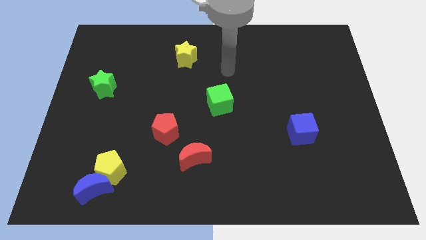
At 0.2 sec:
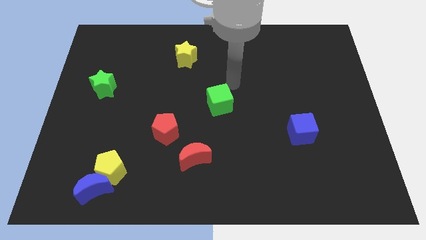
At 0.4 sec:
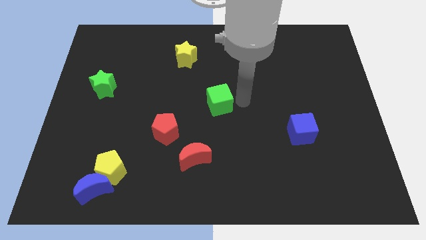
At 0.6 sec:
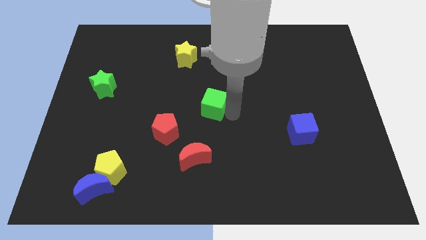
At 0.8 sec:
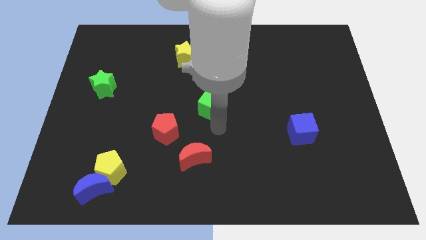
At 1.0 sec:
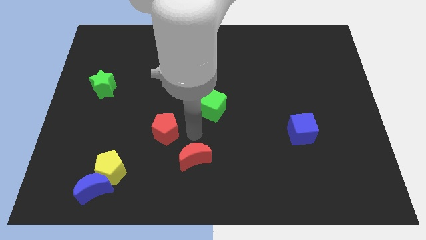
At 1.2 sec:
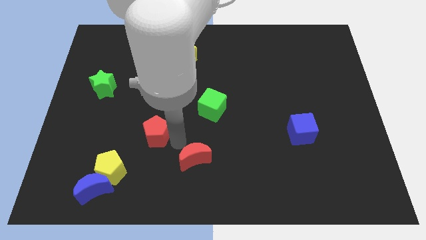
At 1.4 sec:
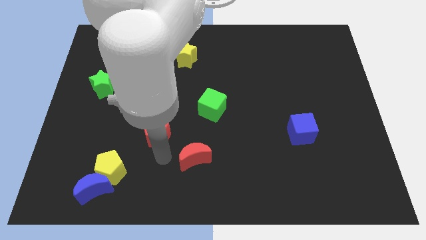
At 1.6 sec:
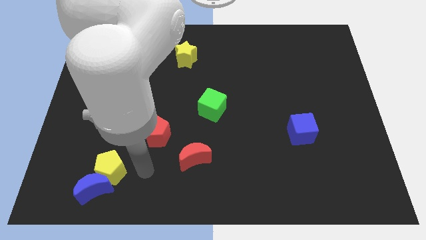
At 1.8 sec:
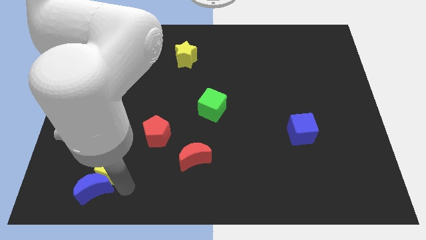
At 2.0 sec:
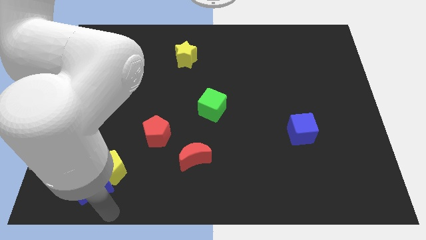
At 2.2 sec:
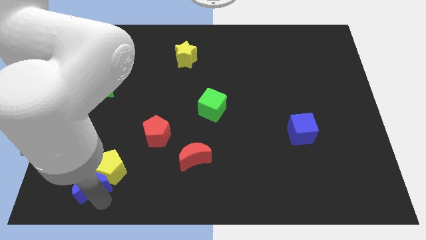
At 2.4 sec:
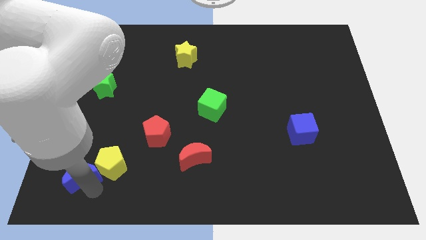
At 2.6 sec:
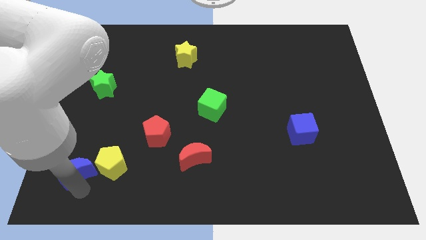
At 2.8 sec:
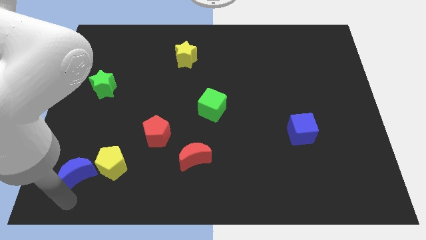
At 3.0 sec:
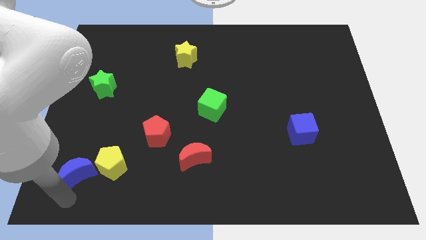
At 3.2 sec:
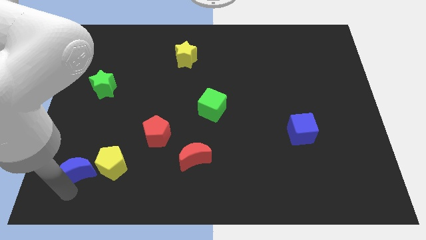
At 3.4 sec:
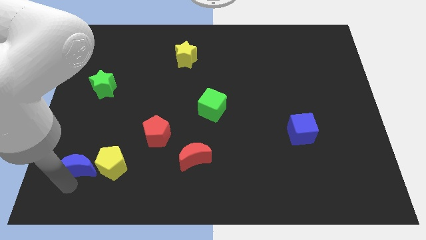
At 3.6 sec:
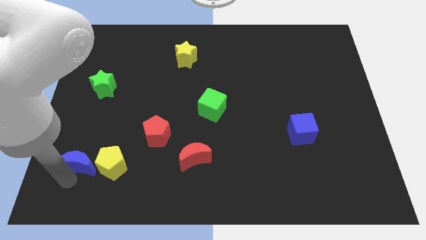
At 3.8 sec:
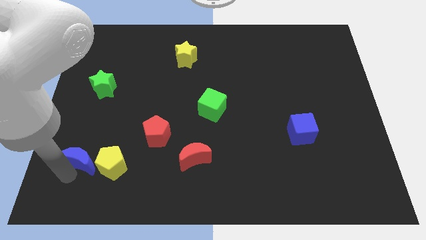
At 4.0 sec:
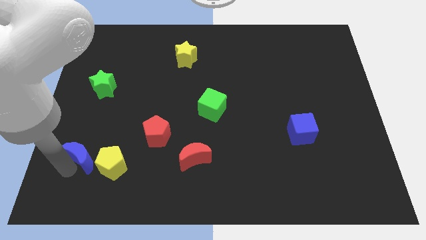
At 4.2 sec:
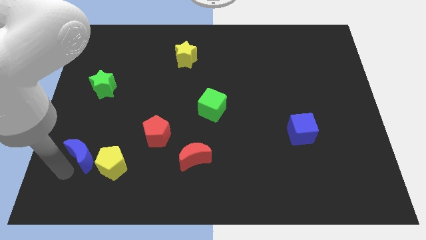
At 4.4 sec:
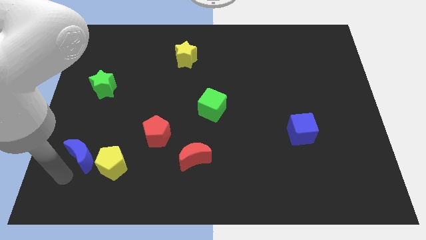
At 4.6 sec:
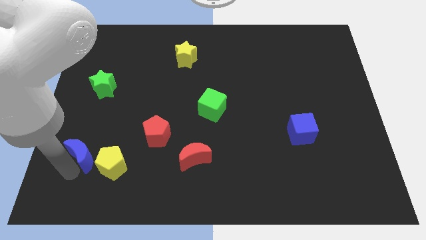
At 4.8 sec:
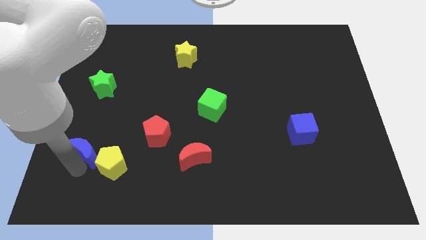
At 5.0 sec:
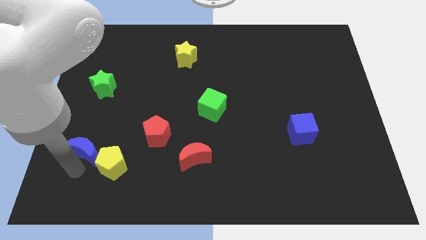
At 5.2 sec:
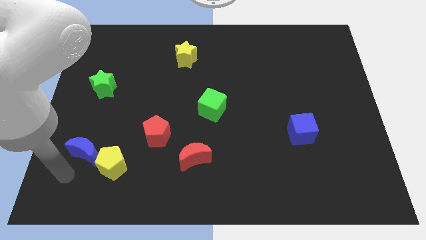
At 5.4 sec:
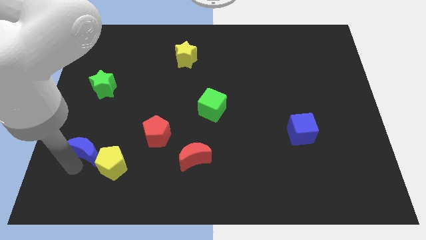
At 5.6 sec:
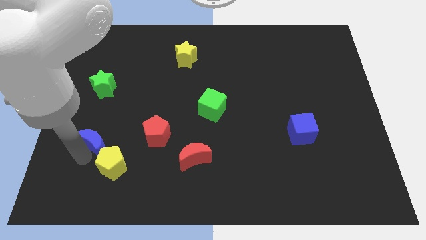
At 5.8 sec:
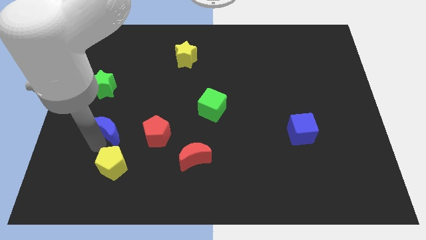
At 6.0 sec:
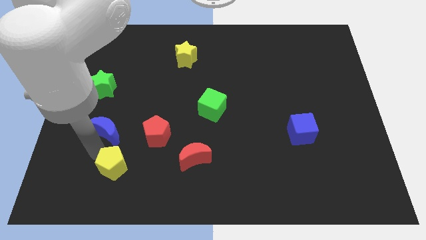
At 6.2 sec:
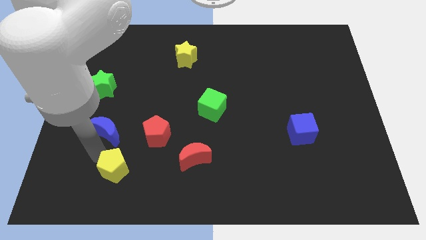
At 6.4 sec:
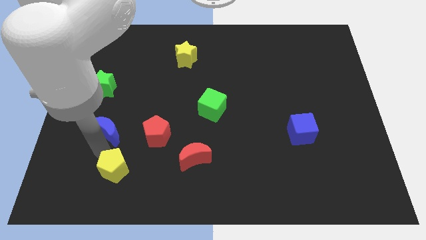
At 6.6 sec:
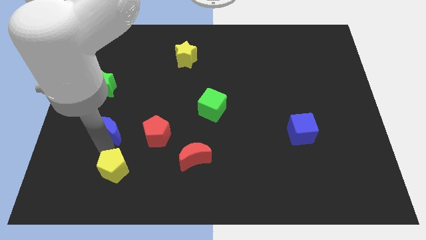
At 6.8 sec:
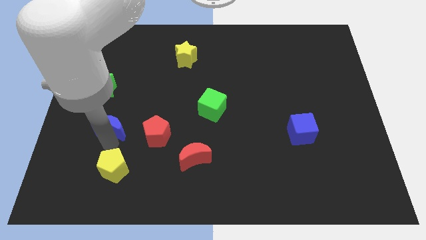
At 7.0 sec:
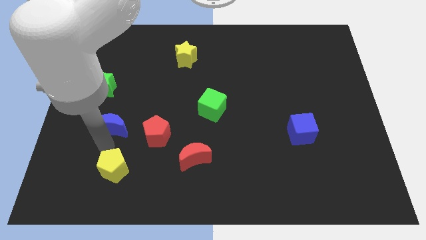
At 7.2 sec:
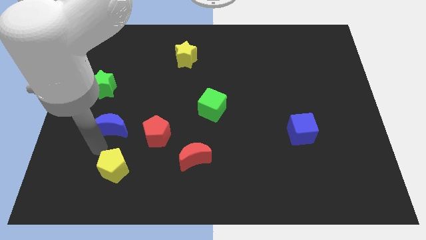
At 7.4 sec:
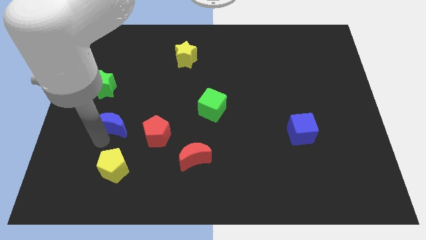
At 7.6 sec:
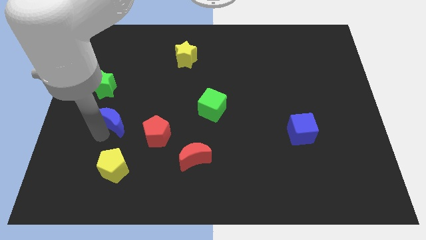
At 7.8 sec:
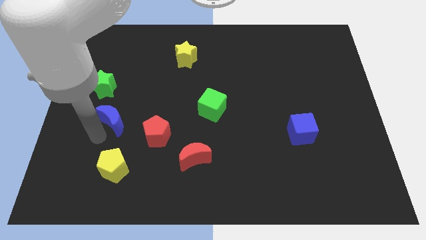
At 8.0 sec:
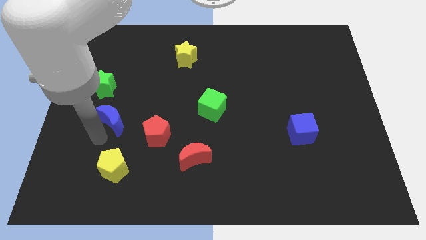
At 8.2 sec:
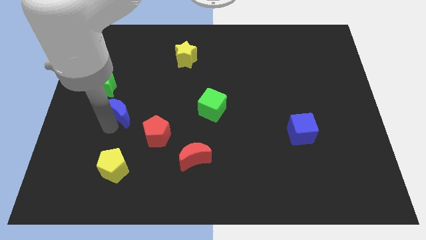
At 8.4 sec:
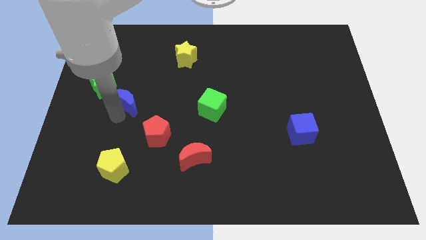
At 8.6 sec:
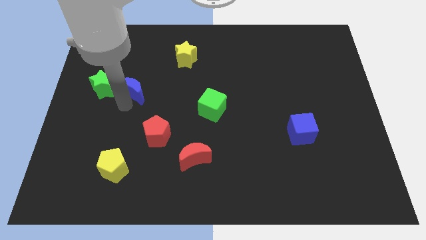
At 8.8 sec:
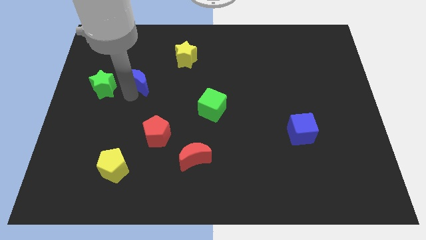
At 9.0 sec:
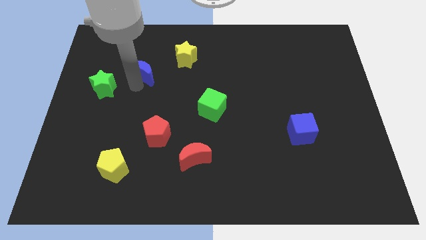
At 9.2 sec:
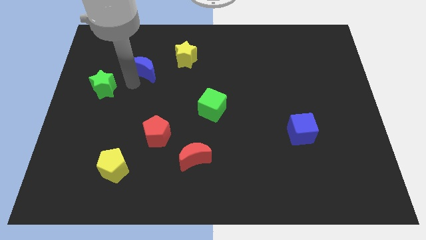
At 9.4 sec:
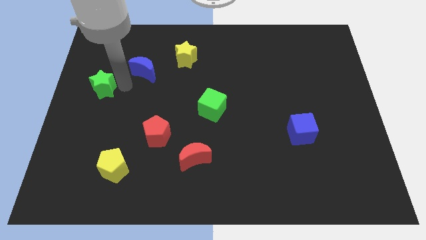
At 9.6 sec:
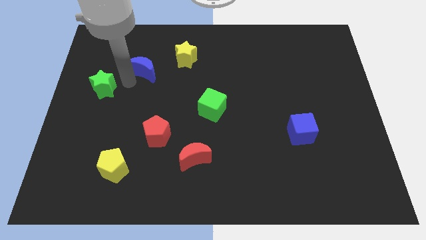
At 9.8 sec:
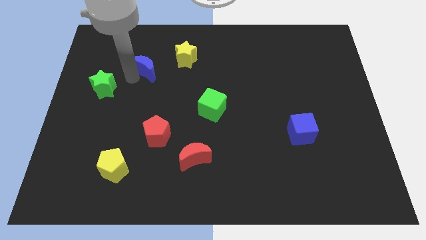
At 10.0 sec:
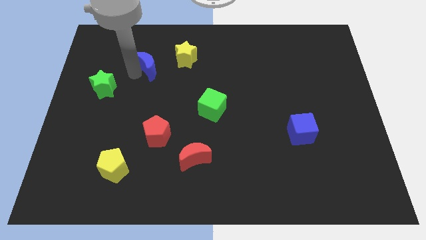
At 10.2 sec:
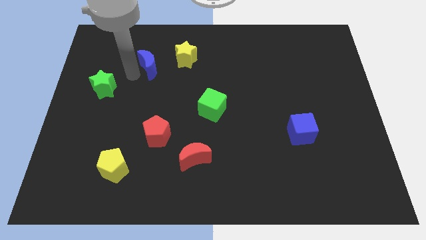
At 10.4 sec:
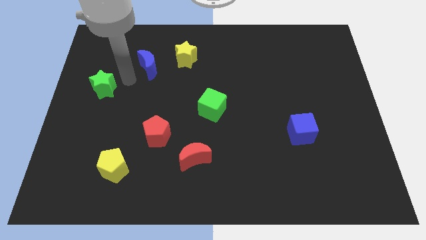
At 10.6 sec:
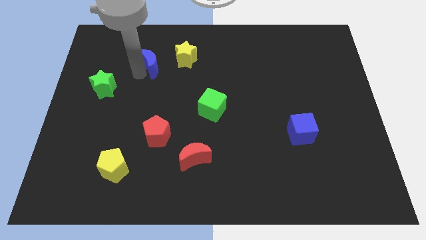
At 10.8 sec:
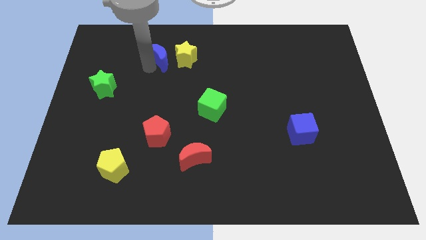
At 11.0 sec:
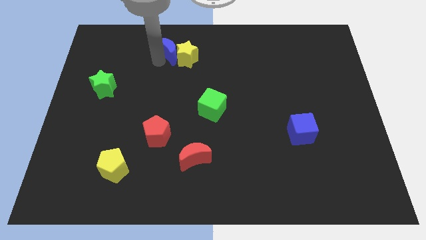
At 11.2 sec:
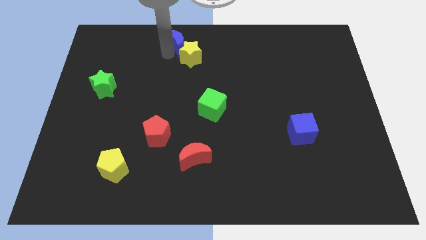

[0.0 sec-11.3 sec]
push the blue moon to the top side

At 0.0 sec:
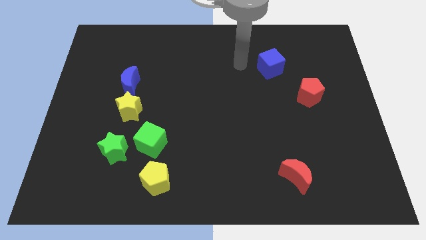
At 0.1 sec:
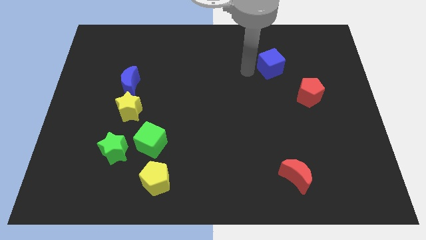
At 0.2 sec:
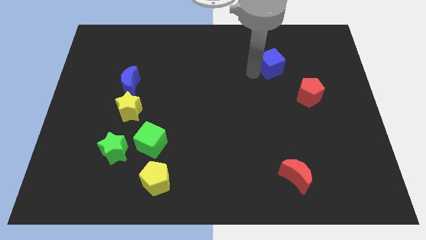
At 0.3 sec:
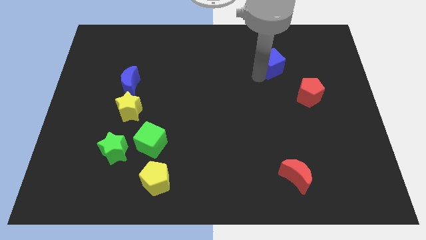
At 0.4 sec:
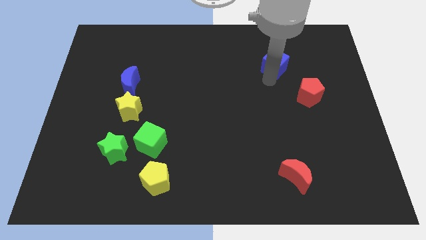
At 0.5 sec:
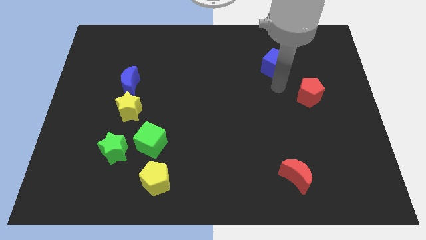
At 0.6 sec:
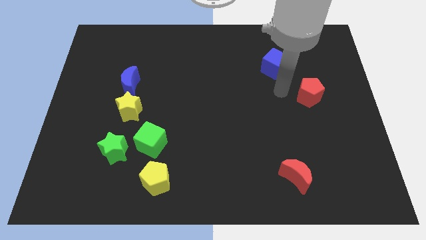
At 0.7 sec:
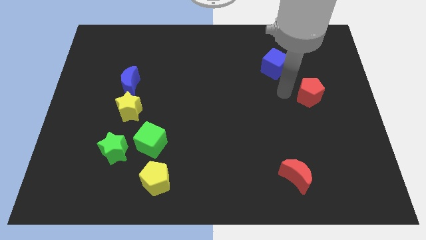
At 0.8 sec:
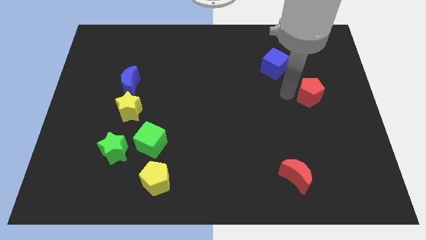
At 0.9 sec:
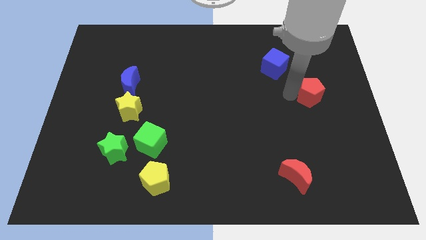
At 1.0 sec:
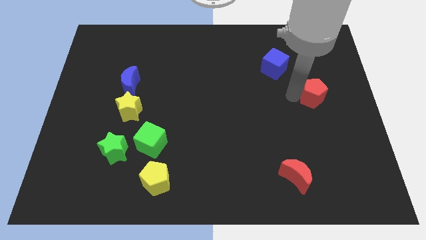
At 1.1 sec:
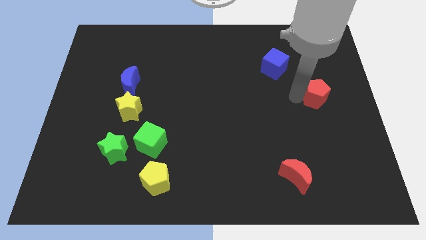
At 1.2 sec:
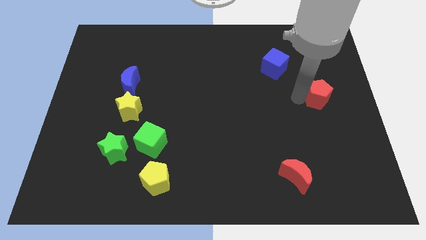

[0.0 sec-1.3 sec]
push the red pentagon to the right side of the board
